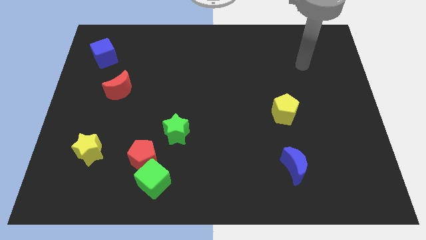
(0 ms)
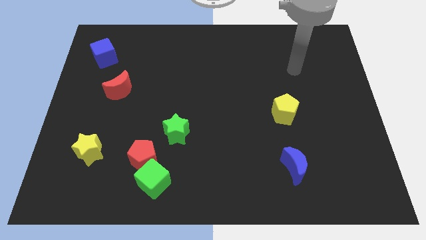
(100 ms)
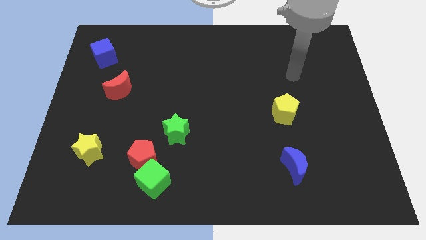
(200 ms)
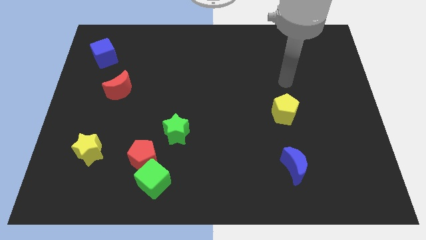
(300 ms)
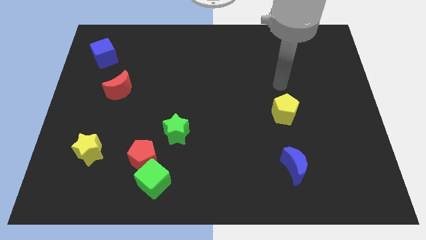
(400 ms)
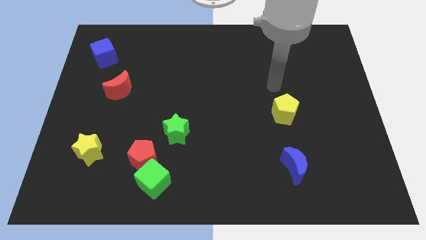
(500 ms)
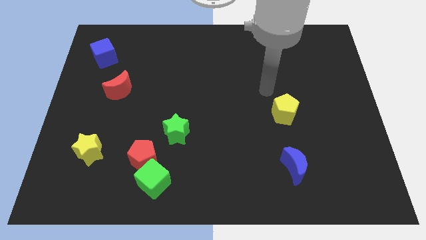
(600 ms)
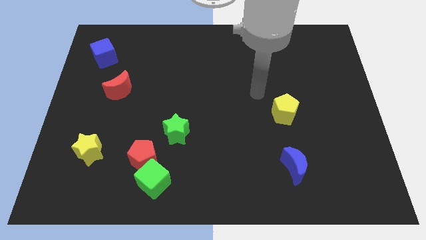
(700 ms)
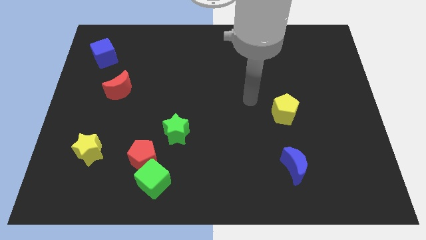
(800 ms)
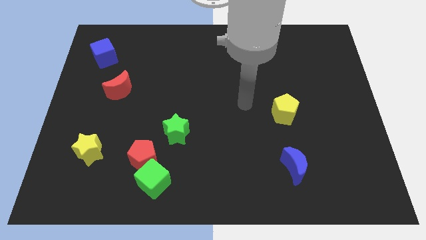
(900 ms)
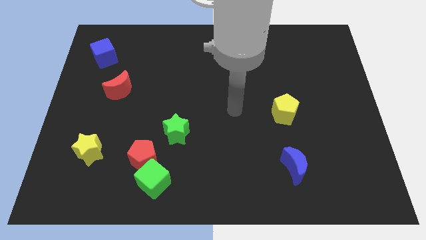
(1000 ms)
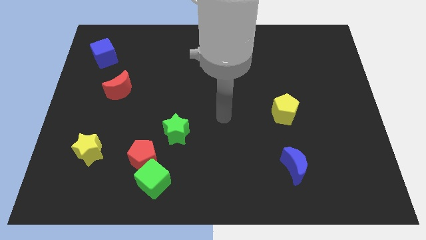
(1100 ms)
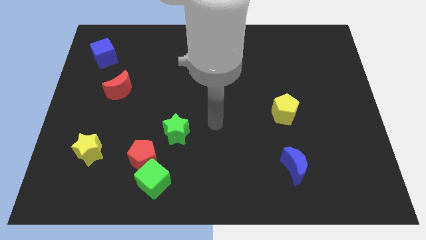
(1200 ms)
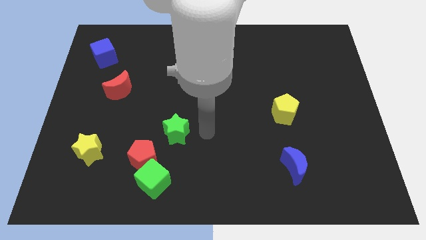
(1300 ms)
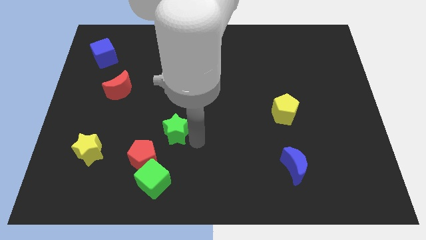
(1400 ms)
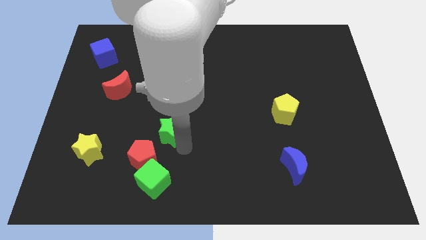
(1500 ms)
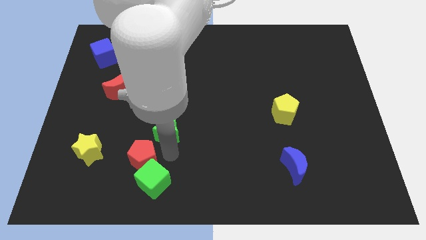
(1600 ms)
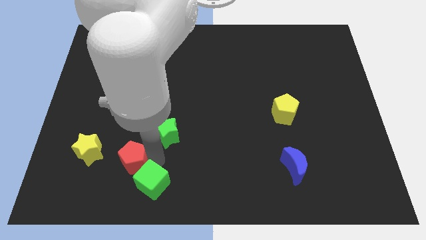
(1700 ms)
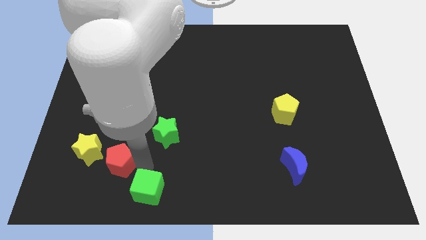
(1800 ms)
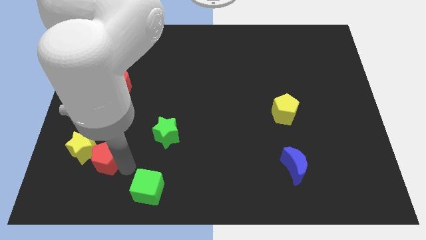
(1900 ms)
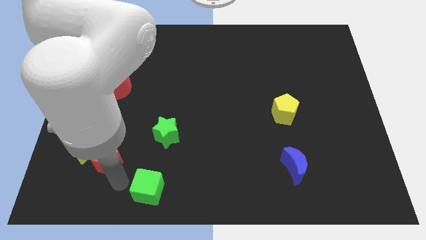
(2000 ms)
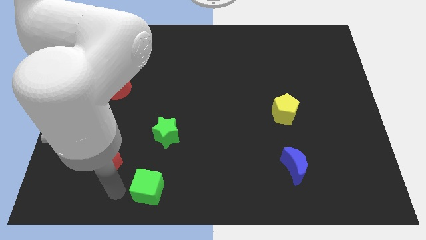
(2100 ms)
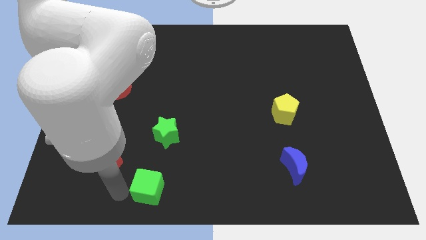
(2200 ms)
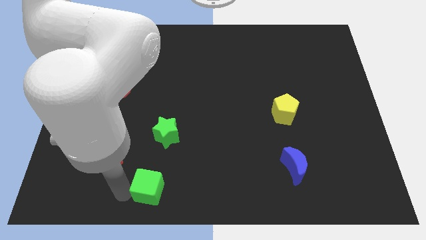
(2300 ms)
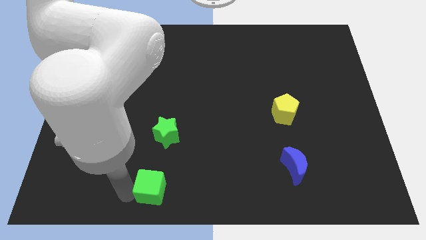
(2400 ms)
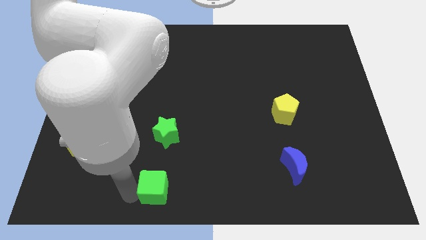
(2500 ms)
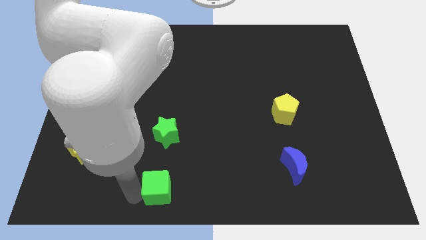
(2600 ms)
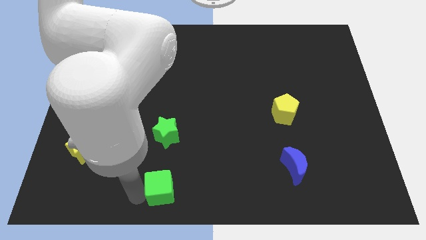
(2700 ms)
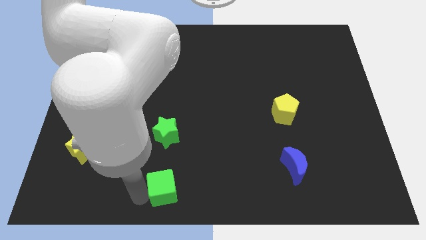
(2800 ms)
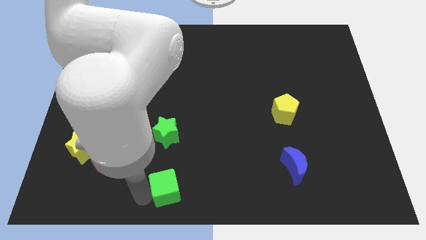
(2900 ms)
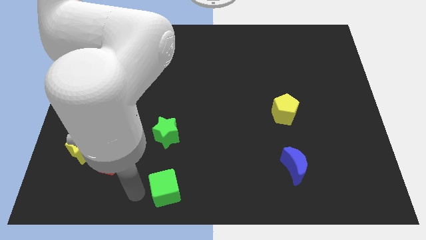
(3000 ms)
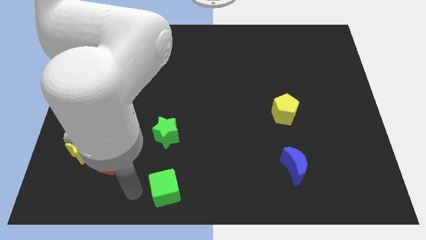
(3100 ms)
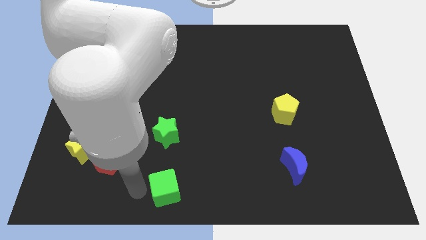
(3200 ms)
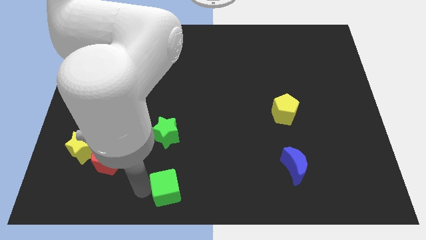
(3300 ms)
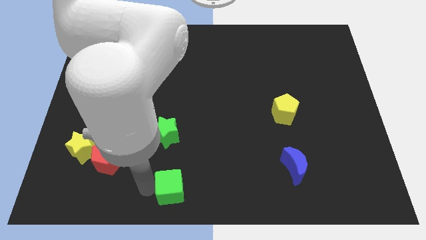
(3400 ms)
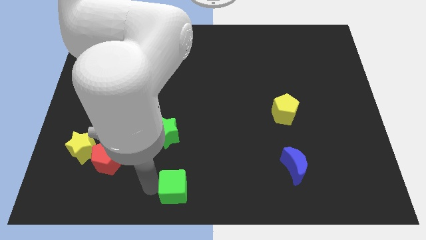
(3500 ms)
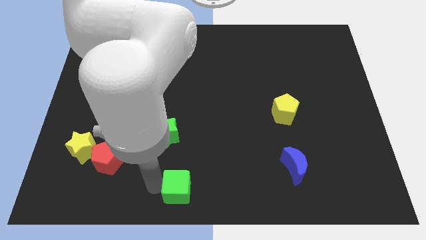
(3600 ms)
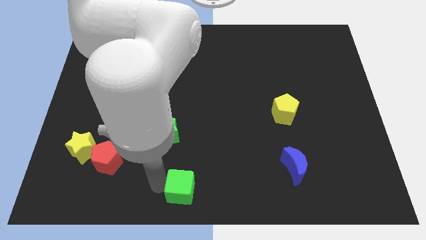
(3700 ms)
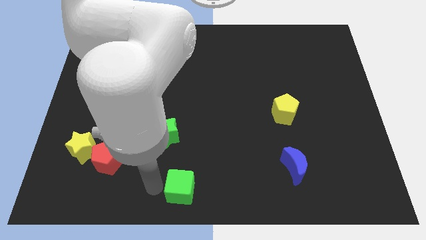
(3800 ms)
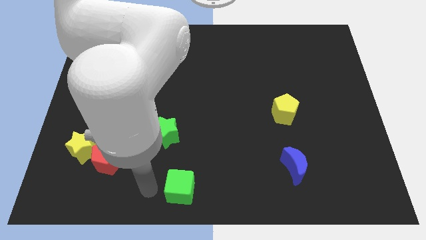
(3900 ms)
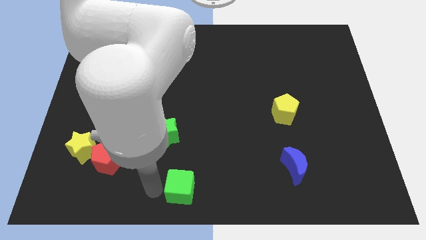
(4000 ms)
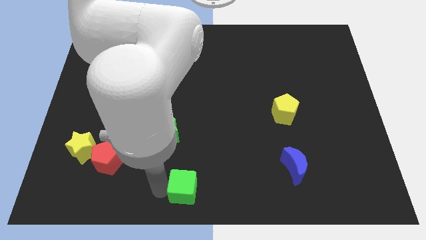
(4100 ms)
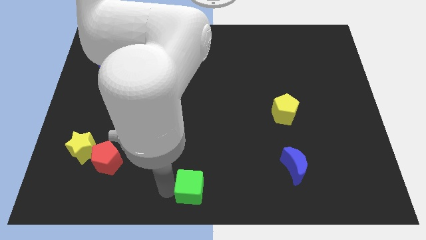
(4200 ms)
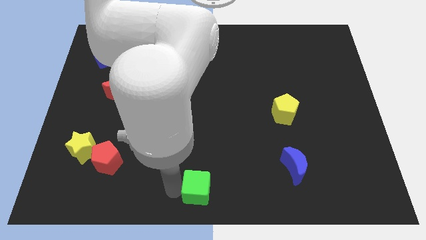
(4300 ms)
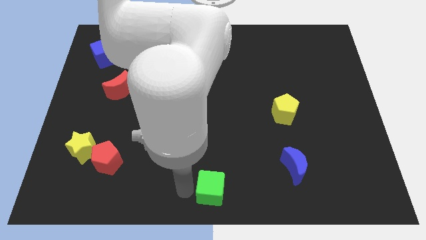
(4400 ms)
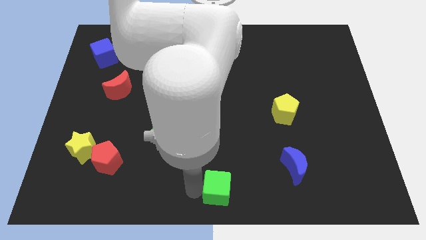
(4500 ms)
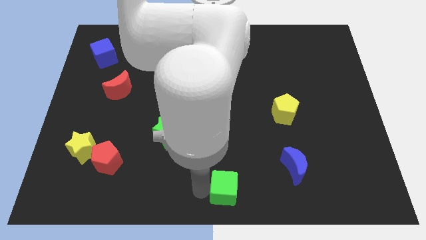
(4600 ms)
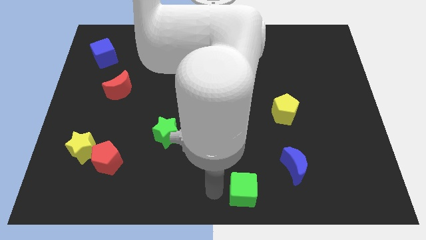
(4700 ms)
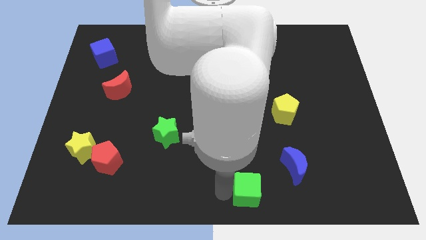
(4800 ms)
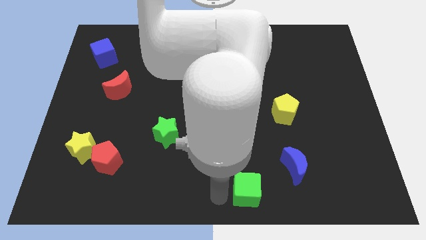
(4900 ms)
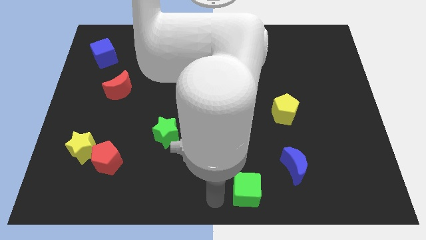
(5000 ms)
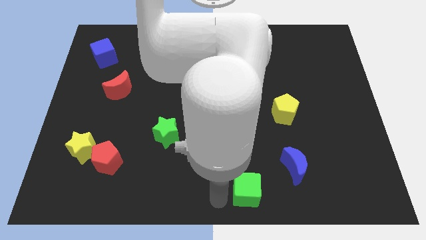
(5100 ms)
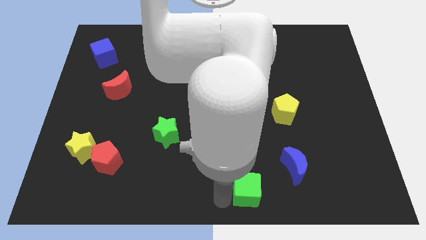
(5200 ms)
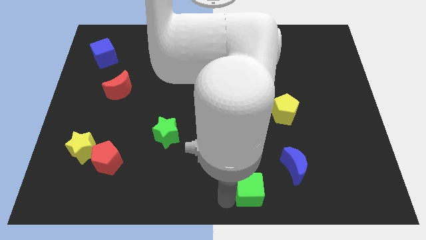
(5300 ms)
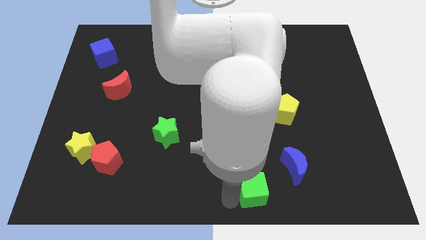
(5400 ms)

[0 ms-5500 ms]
push the green cube to the right

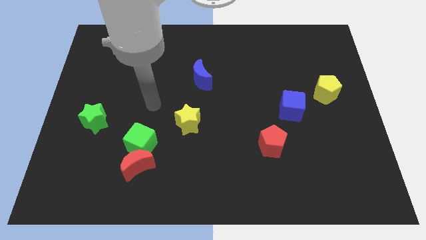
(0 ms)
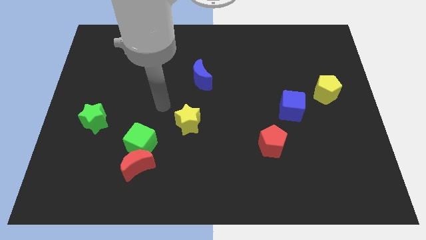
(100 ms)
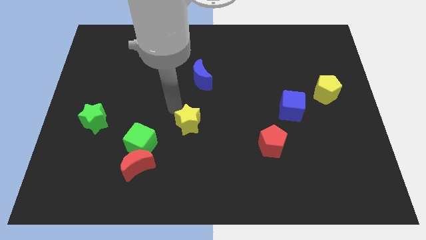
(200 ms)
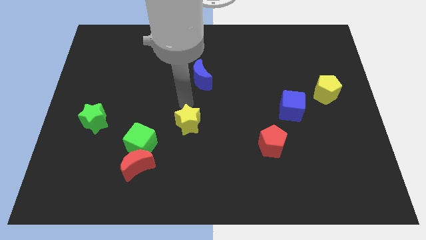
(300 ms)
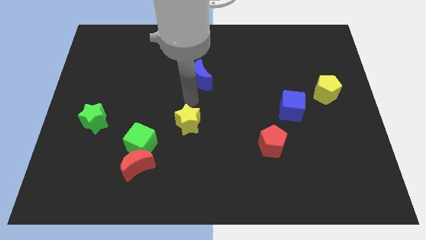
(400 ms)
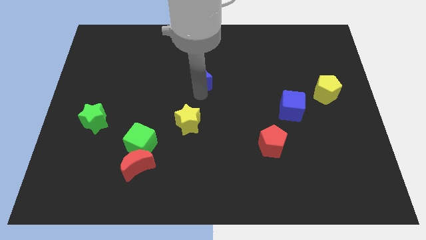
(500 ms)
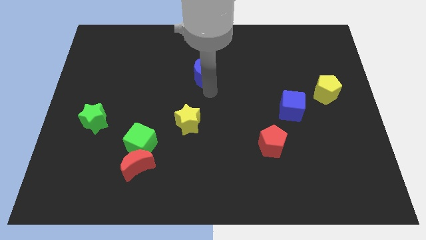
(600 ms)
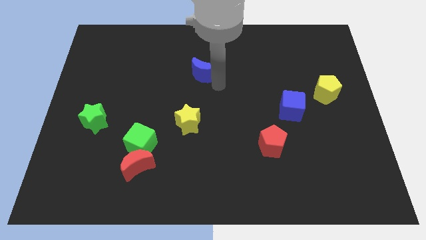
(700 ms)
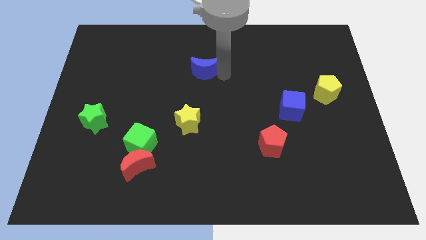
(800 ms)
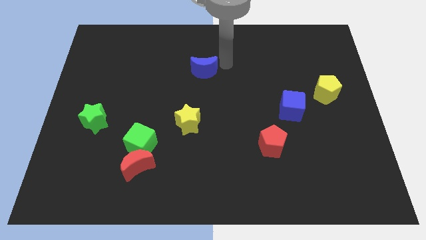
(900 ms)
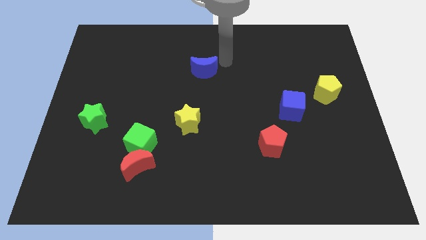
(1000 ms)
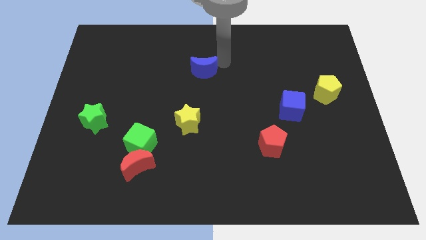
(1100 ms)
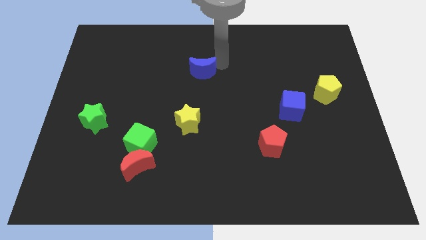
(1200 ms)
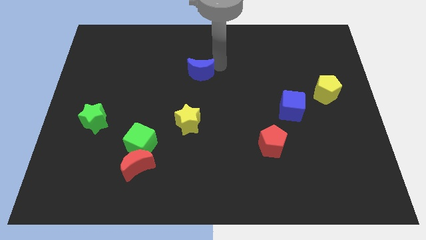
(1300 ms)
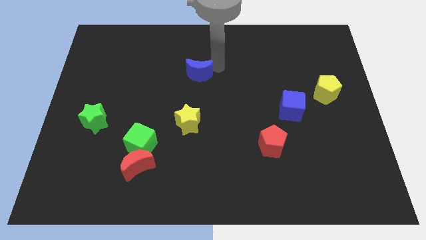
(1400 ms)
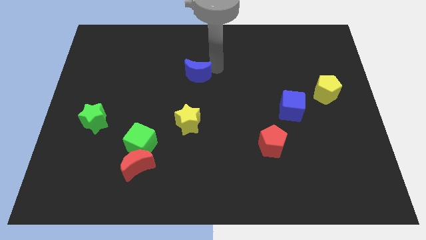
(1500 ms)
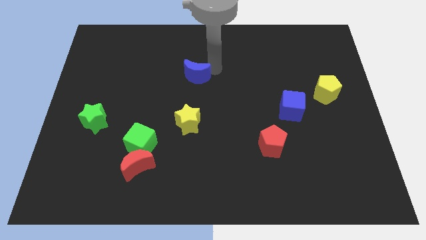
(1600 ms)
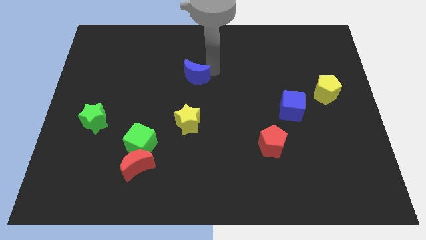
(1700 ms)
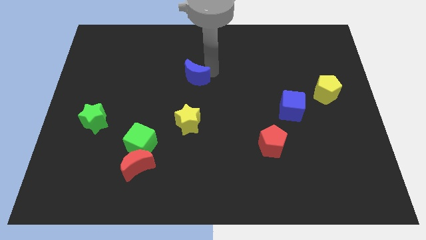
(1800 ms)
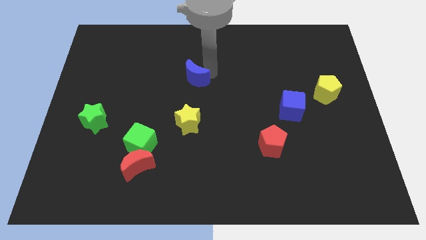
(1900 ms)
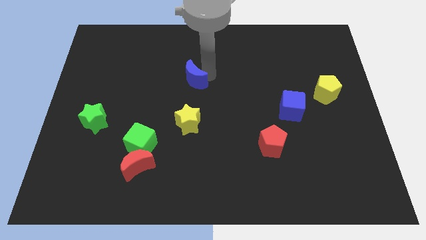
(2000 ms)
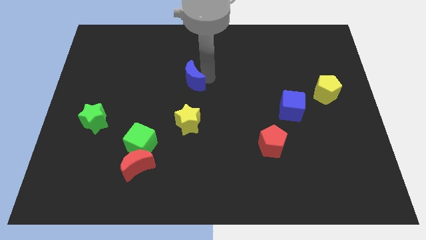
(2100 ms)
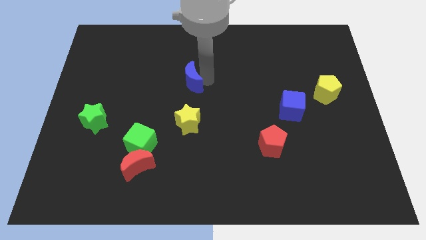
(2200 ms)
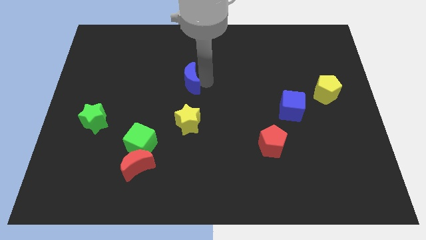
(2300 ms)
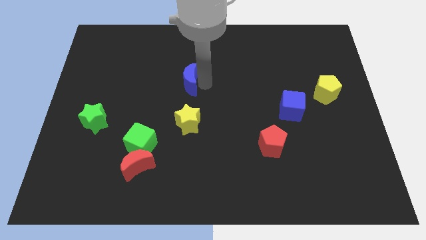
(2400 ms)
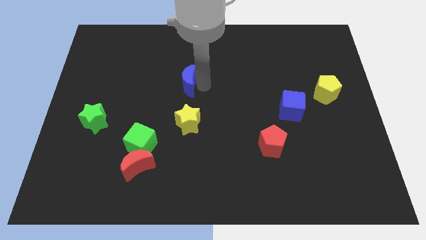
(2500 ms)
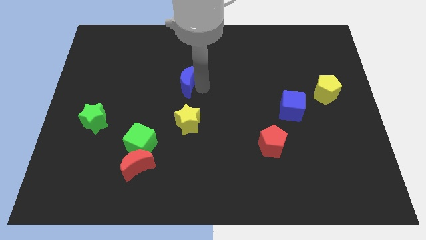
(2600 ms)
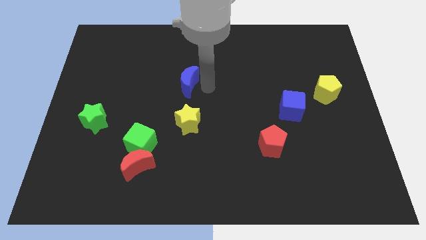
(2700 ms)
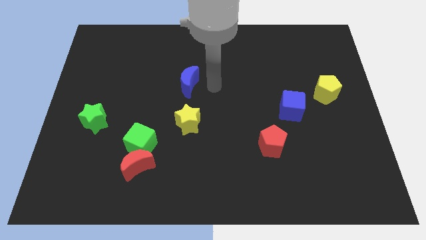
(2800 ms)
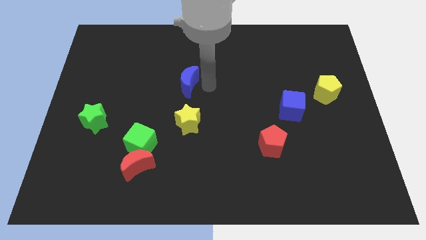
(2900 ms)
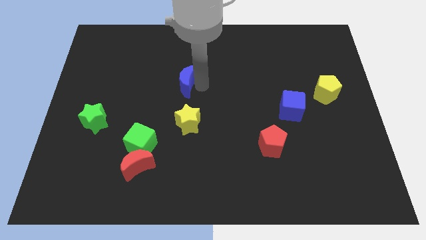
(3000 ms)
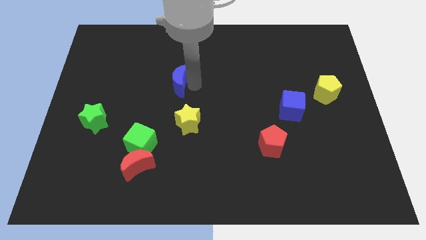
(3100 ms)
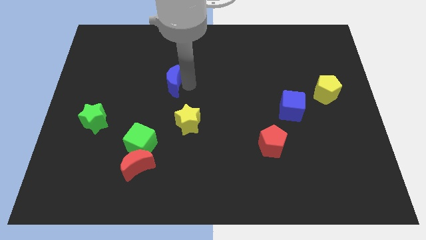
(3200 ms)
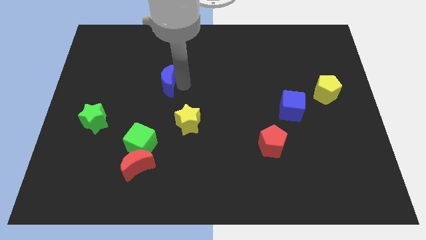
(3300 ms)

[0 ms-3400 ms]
slightly slide the blue moon to the left
